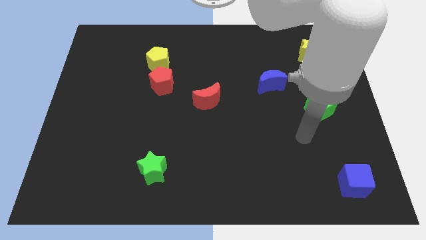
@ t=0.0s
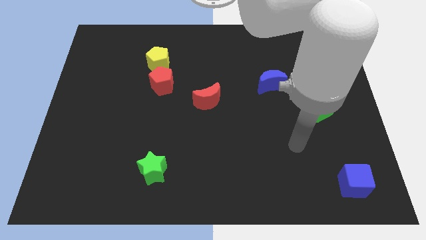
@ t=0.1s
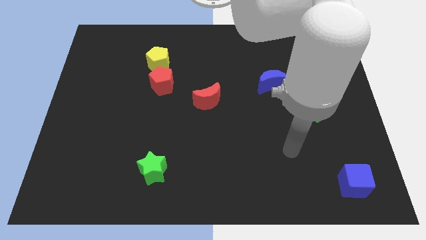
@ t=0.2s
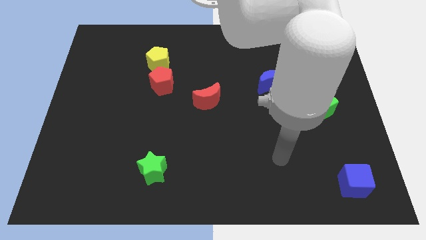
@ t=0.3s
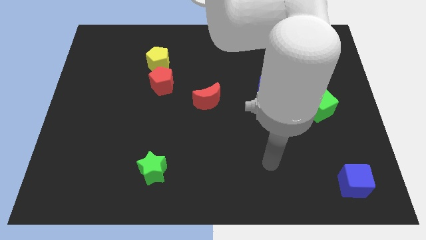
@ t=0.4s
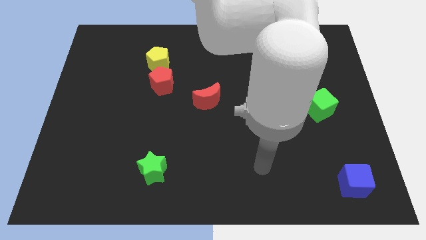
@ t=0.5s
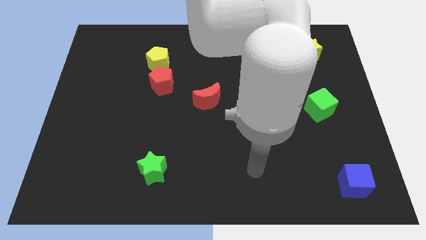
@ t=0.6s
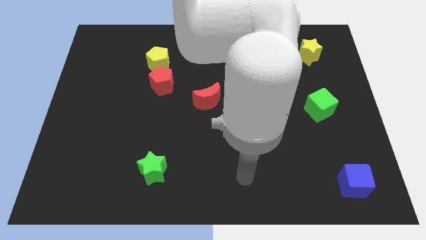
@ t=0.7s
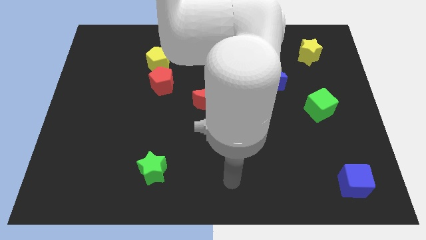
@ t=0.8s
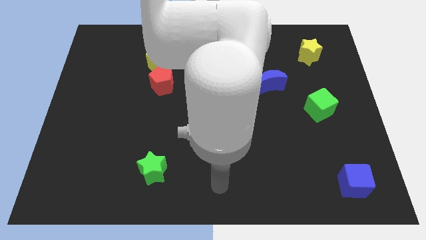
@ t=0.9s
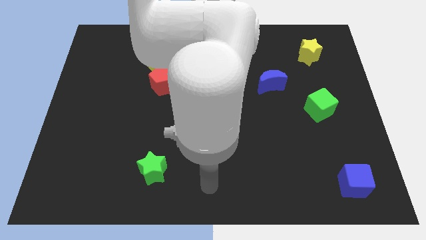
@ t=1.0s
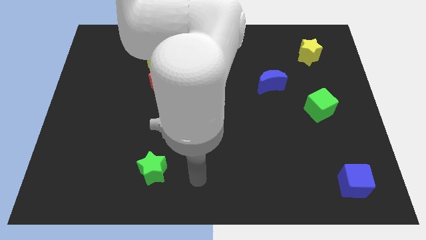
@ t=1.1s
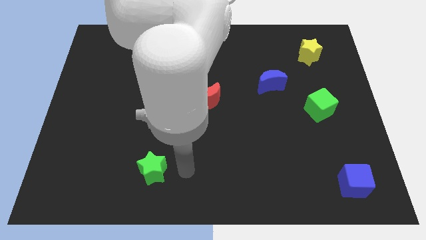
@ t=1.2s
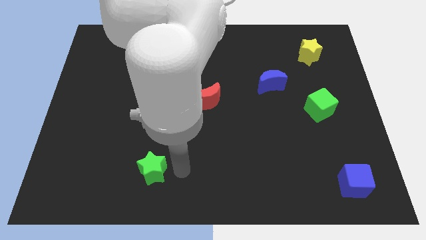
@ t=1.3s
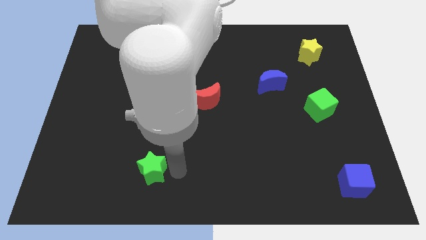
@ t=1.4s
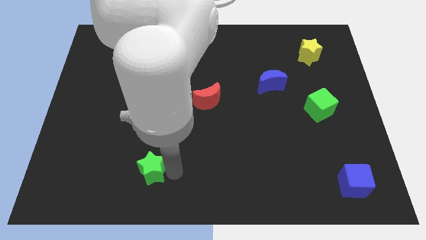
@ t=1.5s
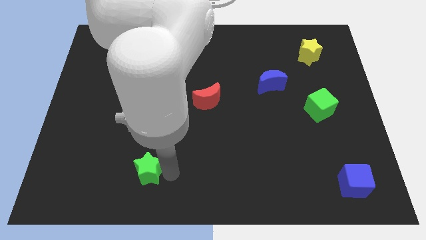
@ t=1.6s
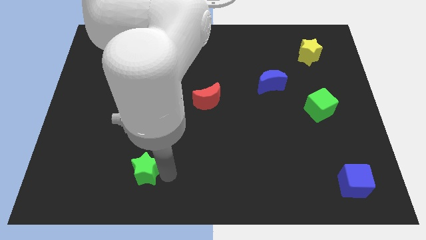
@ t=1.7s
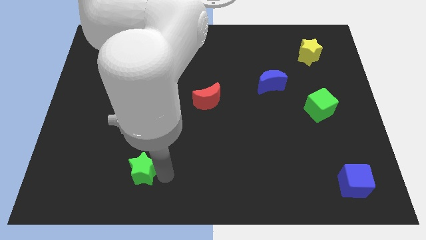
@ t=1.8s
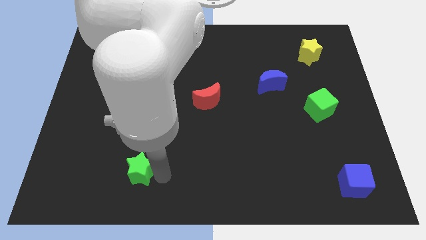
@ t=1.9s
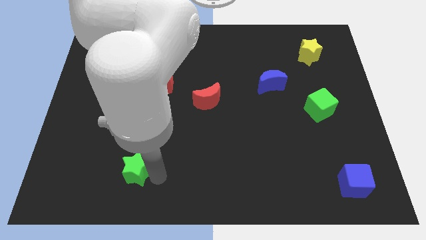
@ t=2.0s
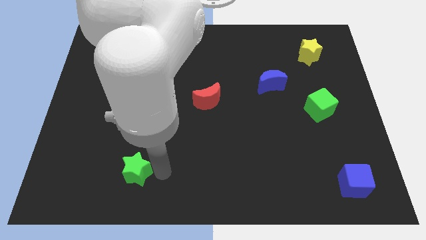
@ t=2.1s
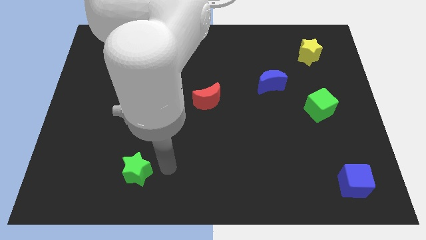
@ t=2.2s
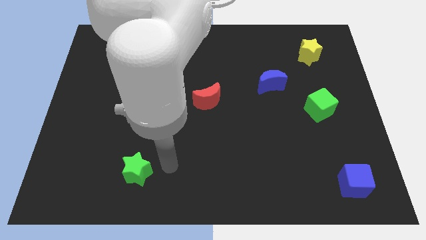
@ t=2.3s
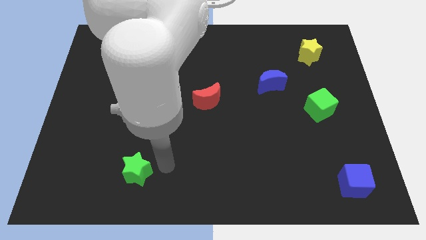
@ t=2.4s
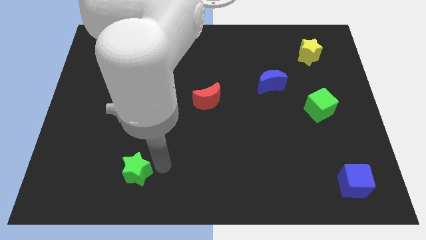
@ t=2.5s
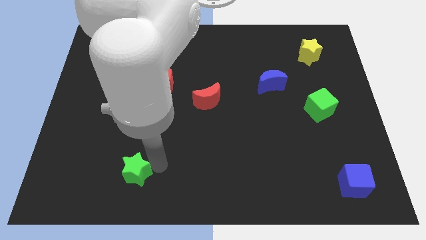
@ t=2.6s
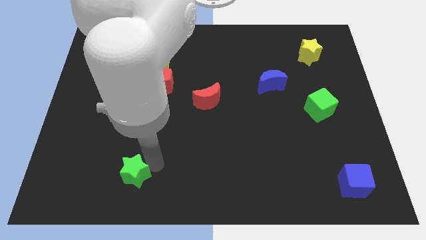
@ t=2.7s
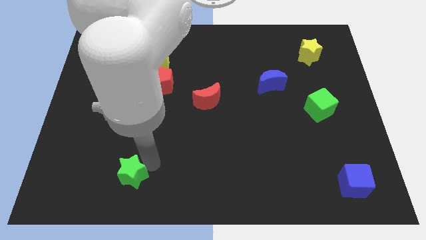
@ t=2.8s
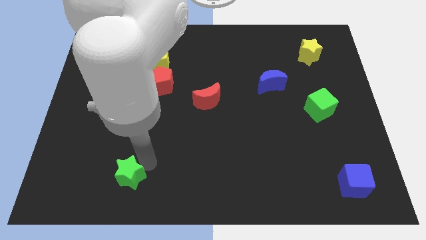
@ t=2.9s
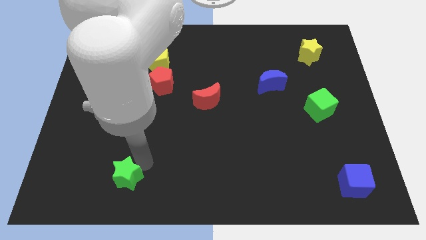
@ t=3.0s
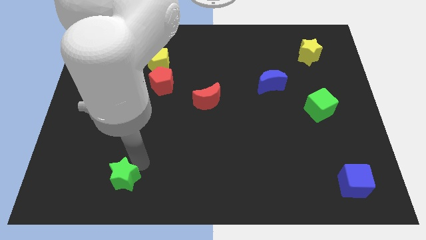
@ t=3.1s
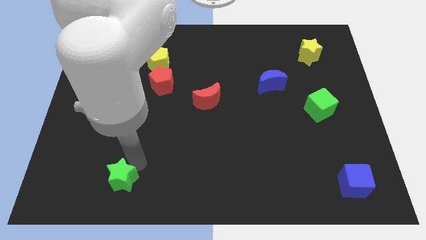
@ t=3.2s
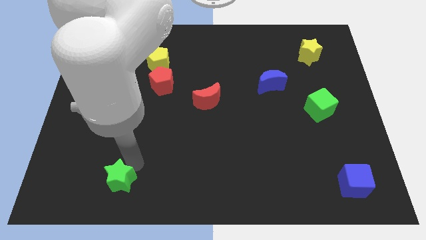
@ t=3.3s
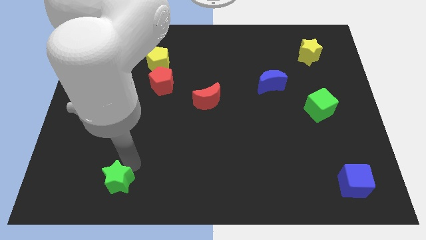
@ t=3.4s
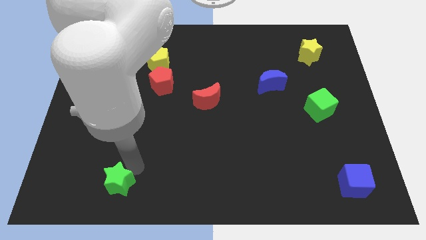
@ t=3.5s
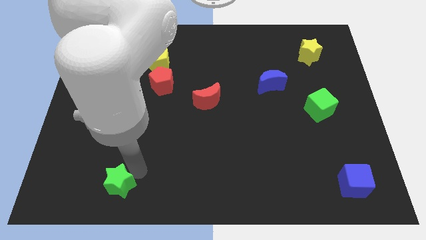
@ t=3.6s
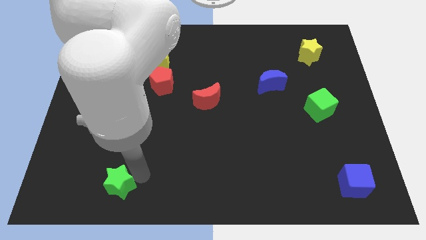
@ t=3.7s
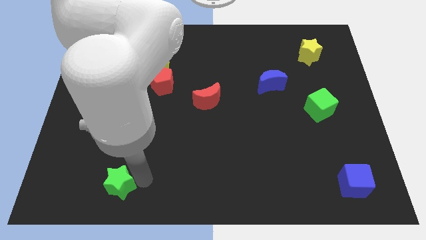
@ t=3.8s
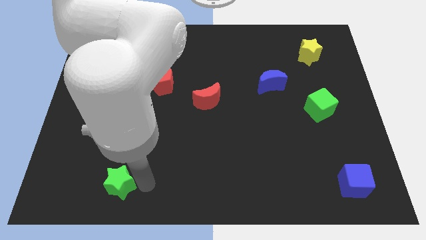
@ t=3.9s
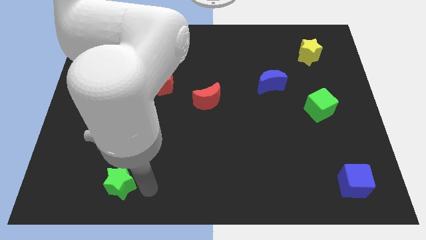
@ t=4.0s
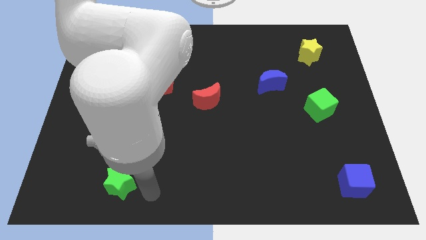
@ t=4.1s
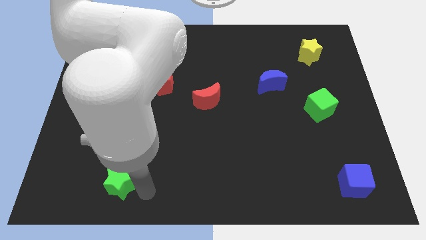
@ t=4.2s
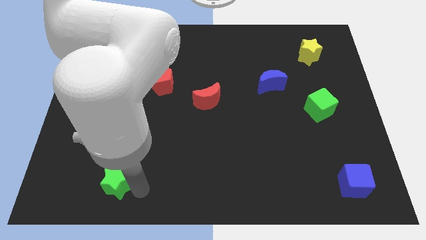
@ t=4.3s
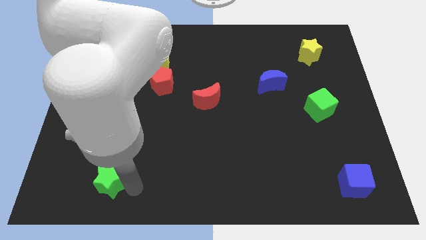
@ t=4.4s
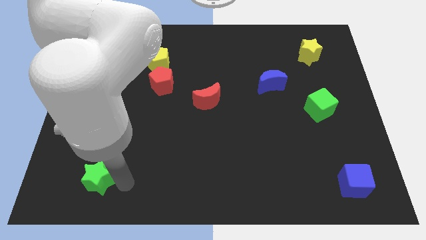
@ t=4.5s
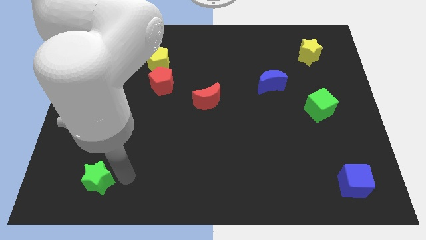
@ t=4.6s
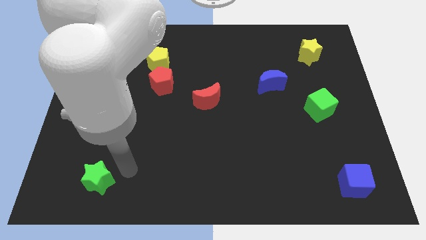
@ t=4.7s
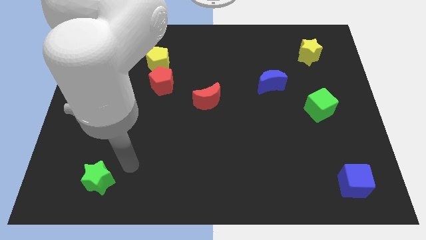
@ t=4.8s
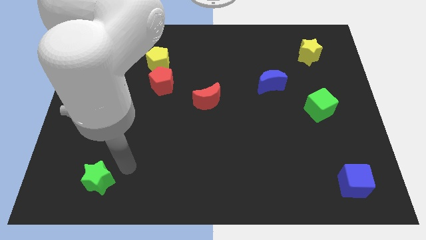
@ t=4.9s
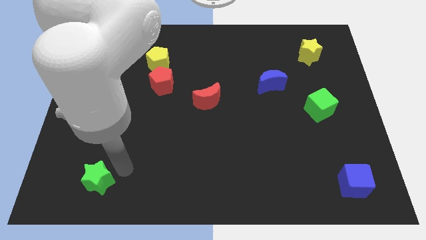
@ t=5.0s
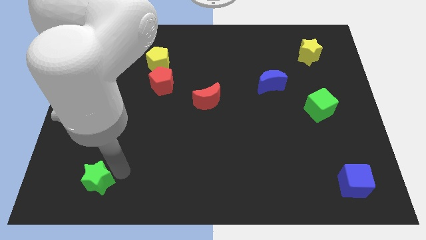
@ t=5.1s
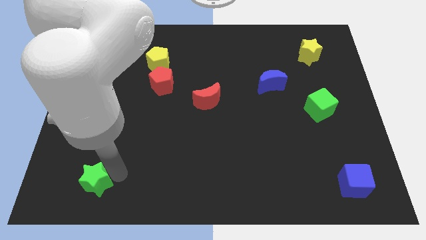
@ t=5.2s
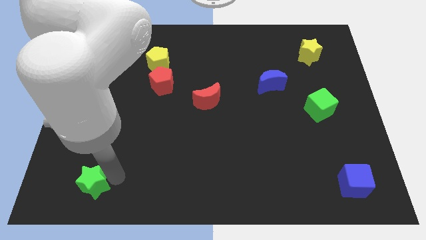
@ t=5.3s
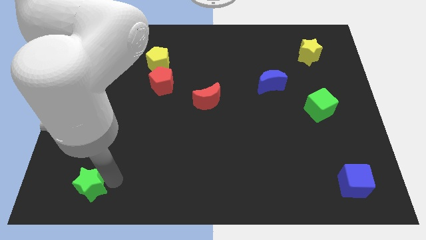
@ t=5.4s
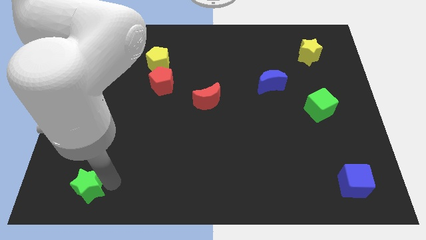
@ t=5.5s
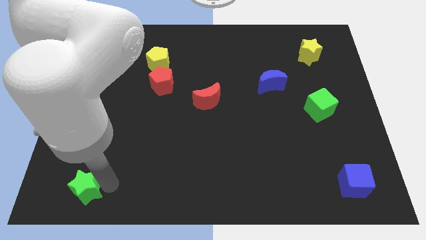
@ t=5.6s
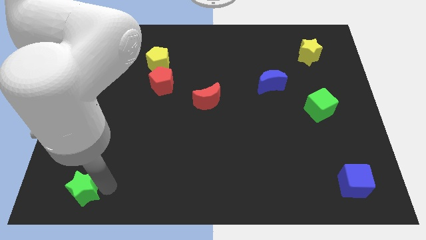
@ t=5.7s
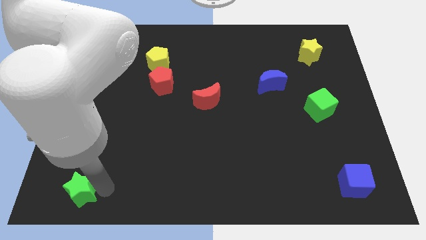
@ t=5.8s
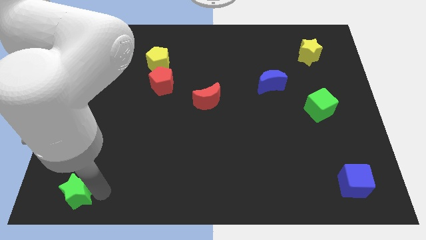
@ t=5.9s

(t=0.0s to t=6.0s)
push the green star to the lower left corner

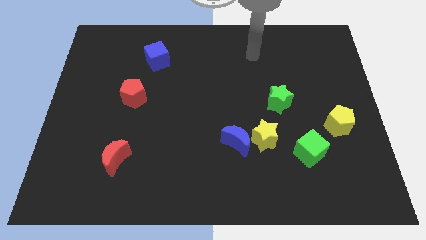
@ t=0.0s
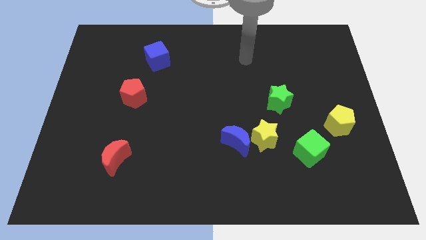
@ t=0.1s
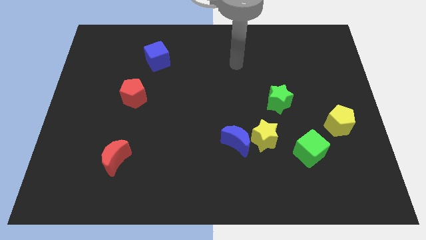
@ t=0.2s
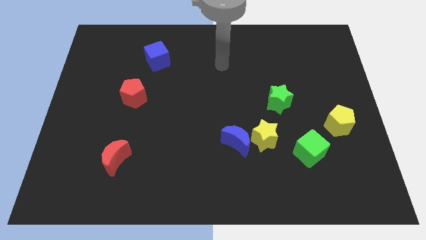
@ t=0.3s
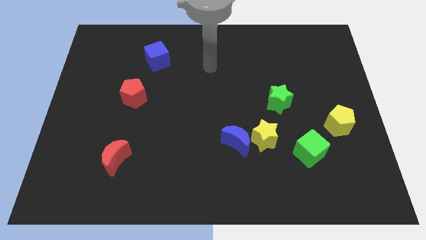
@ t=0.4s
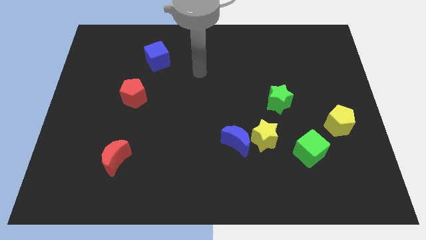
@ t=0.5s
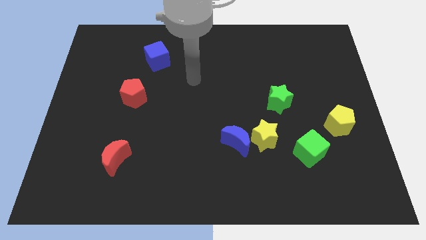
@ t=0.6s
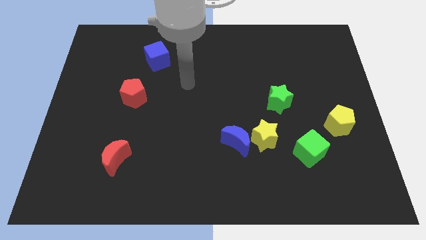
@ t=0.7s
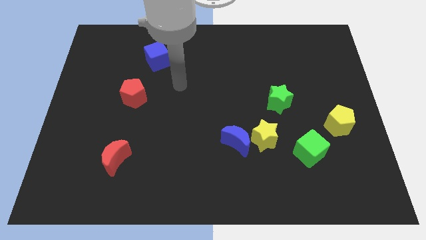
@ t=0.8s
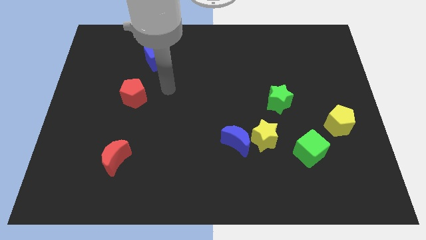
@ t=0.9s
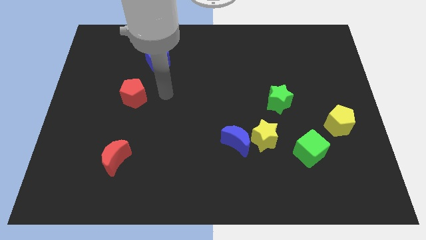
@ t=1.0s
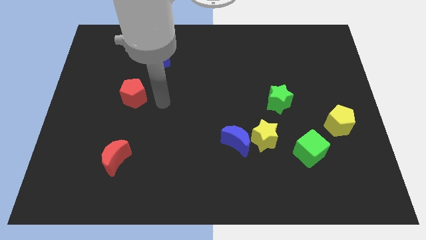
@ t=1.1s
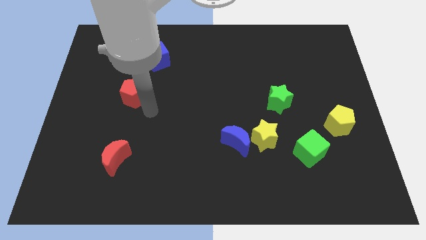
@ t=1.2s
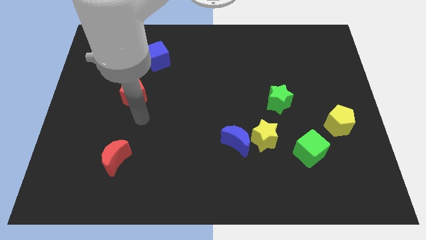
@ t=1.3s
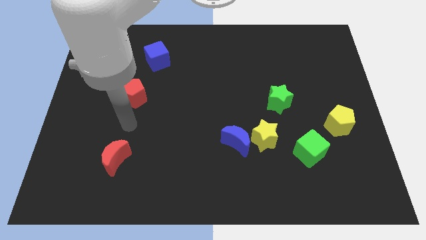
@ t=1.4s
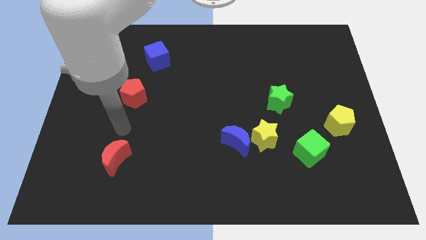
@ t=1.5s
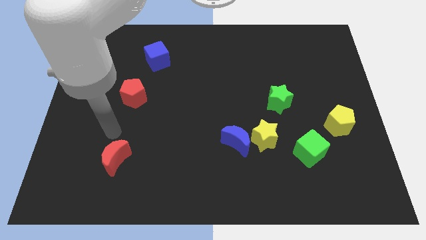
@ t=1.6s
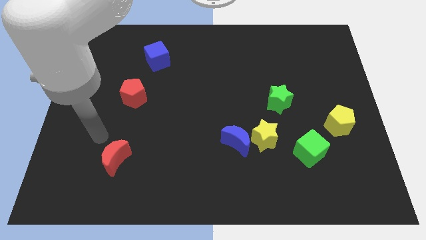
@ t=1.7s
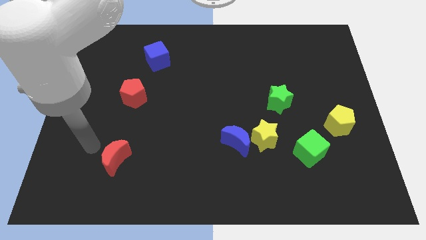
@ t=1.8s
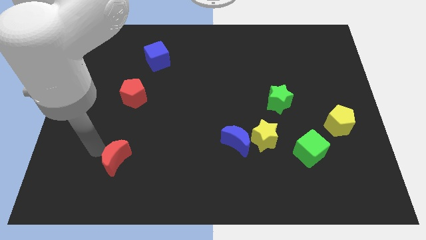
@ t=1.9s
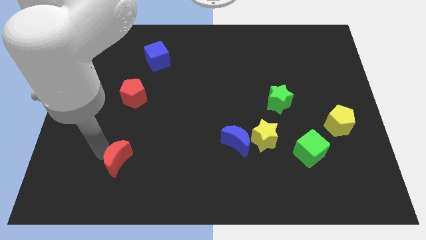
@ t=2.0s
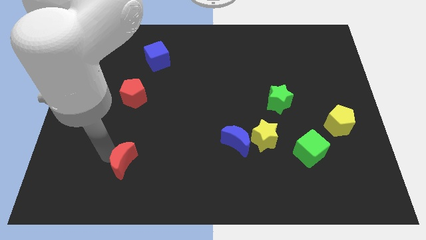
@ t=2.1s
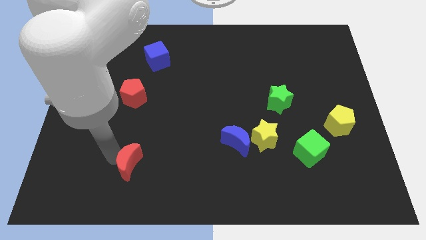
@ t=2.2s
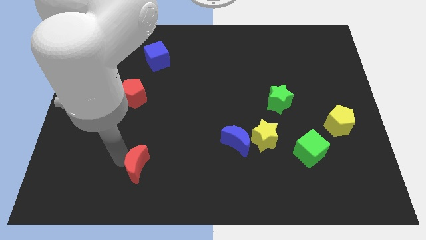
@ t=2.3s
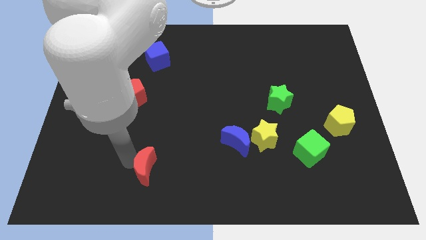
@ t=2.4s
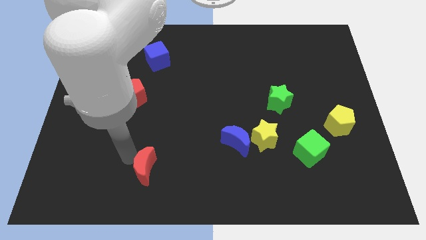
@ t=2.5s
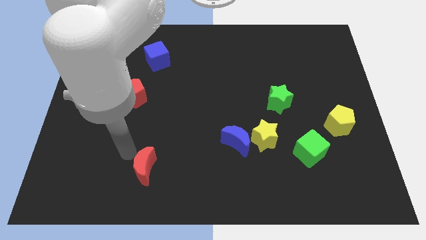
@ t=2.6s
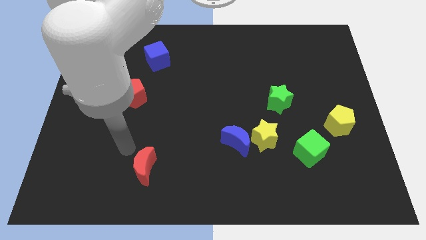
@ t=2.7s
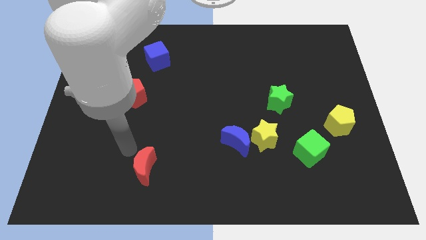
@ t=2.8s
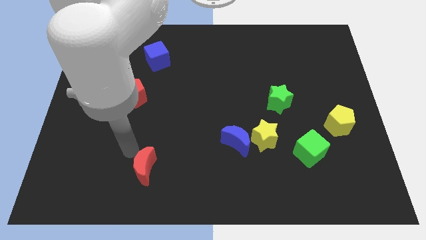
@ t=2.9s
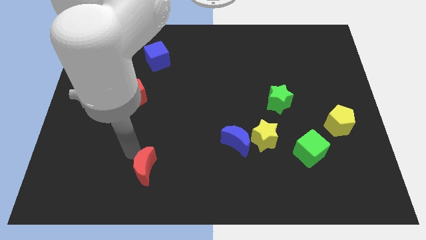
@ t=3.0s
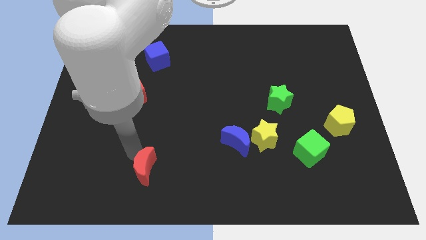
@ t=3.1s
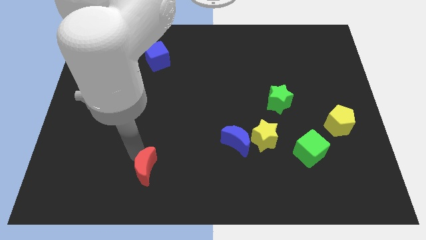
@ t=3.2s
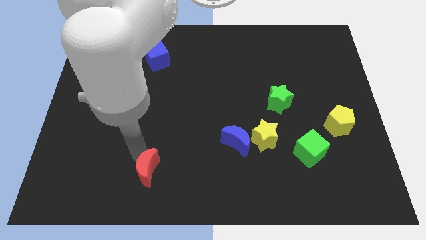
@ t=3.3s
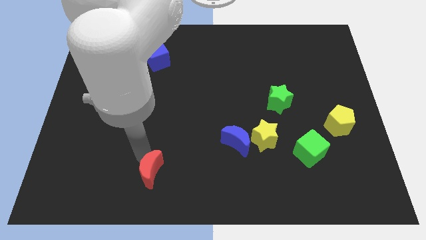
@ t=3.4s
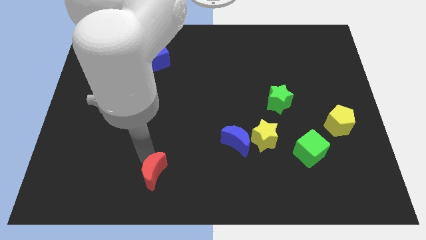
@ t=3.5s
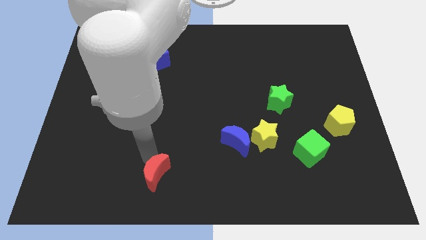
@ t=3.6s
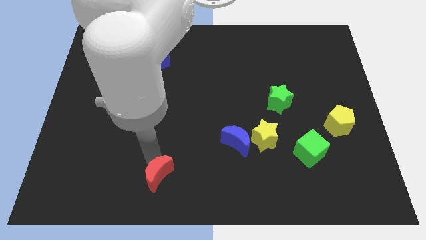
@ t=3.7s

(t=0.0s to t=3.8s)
move the red moon to the bottom
